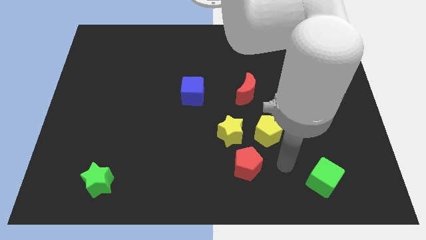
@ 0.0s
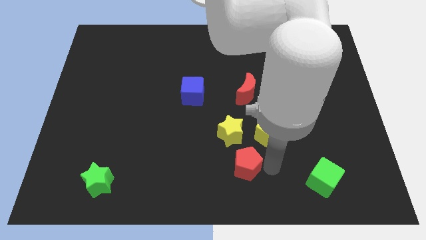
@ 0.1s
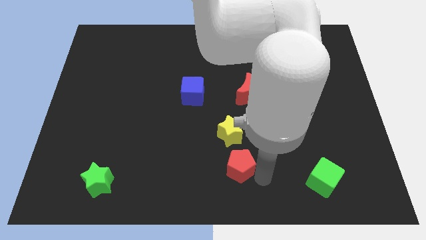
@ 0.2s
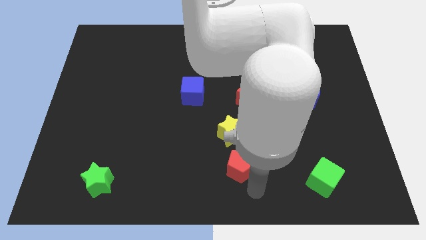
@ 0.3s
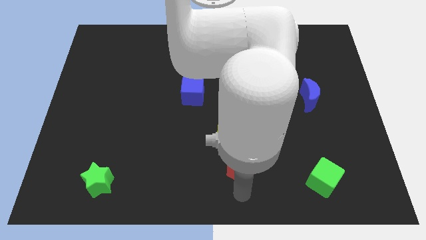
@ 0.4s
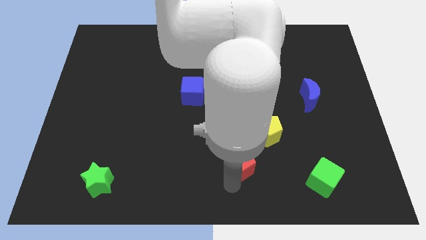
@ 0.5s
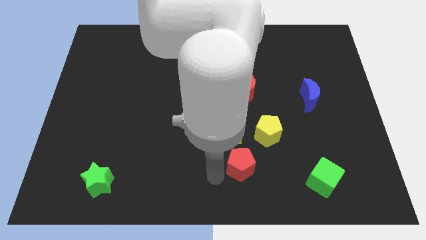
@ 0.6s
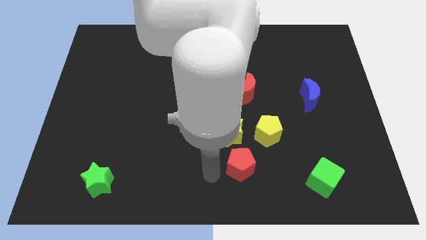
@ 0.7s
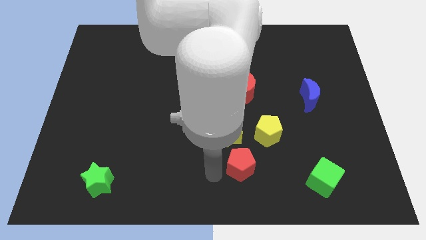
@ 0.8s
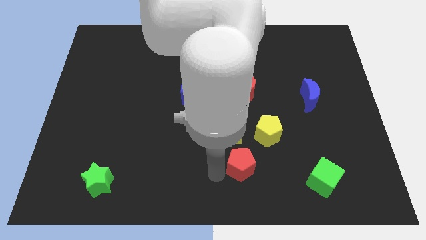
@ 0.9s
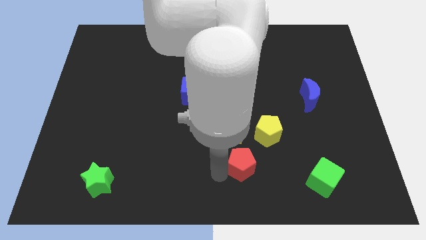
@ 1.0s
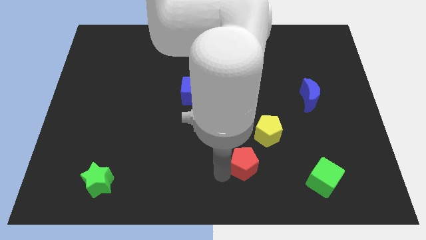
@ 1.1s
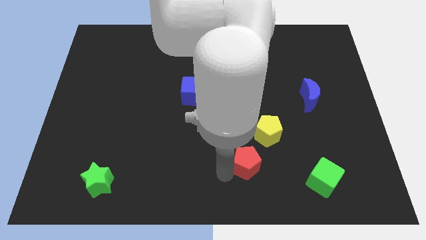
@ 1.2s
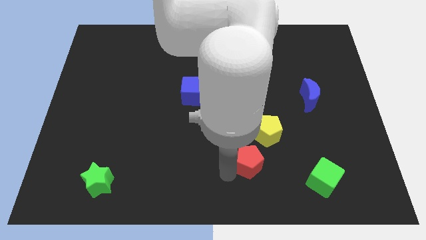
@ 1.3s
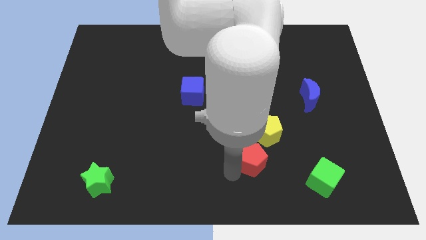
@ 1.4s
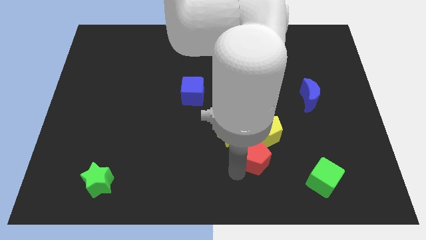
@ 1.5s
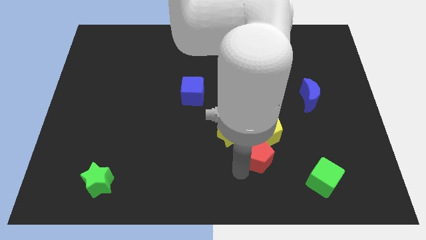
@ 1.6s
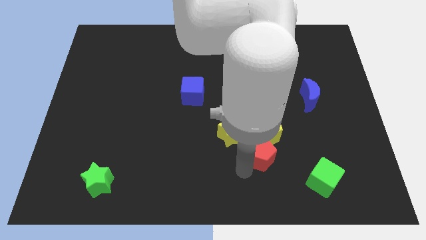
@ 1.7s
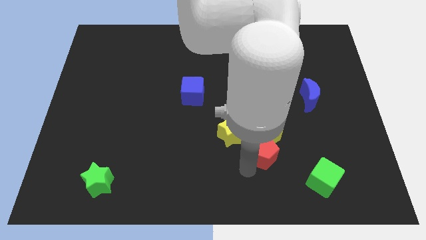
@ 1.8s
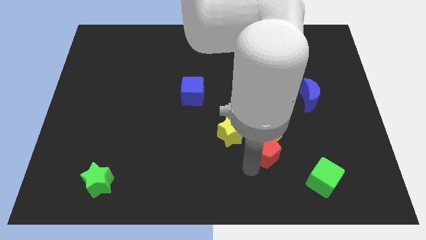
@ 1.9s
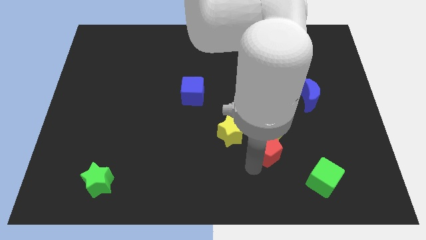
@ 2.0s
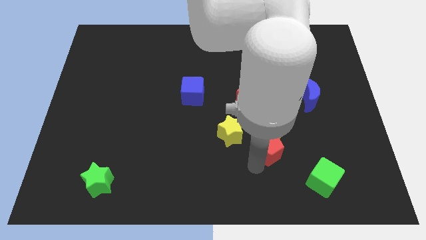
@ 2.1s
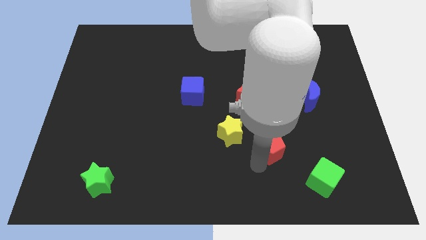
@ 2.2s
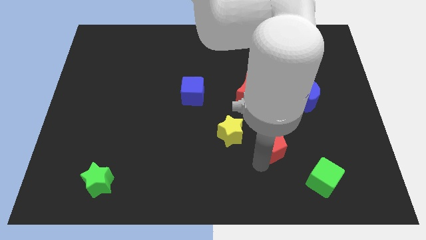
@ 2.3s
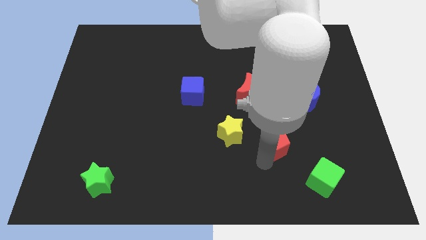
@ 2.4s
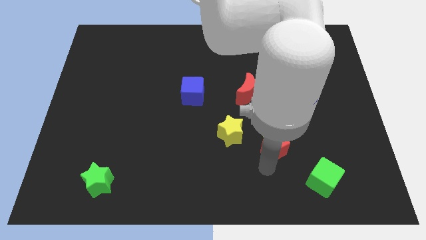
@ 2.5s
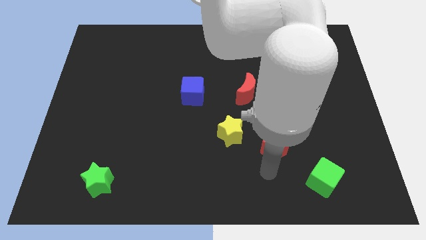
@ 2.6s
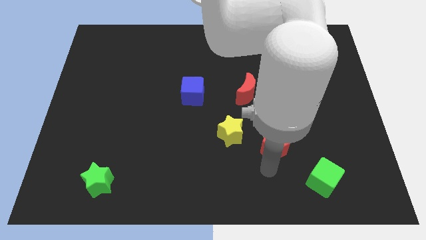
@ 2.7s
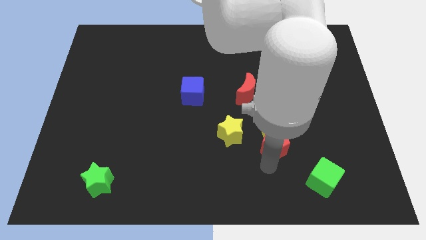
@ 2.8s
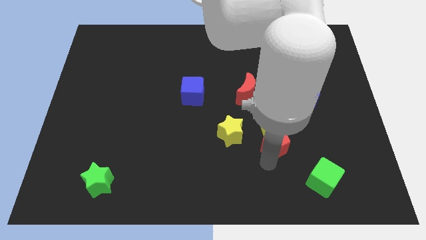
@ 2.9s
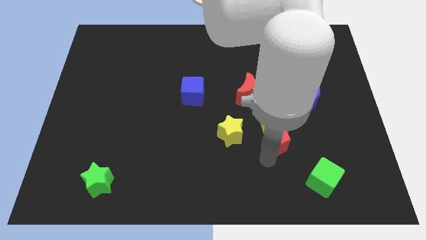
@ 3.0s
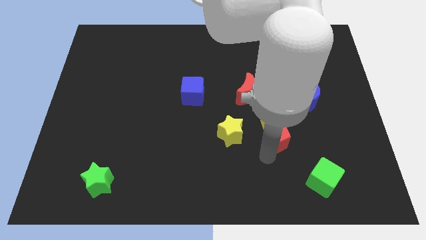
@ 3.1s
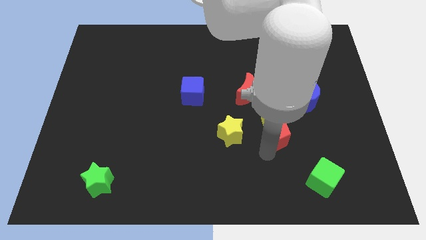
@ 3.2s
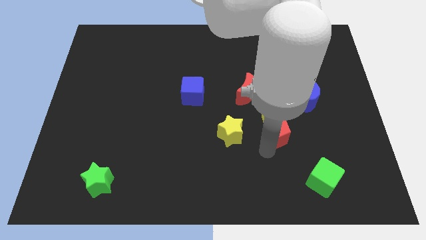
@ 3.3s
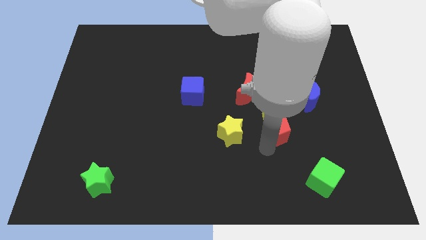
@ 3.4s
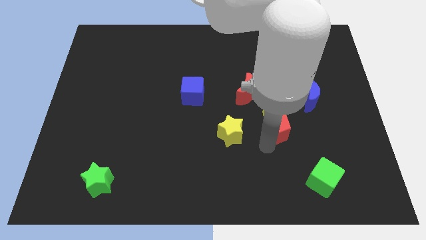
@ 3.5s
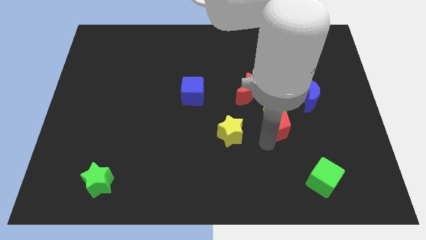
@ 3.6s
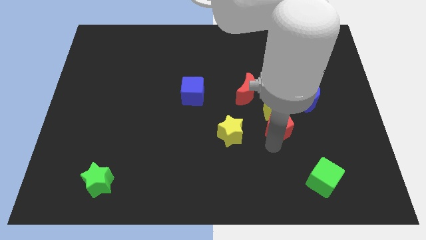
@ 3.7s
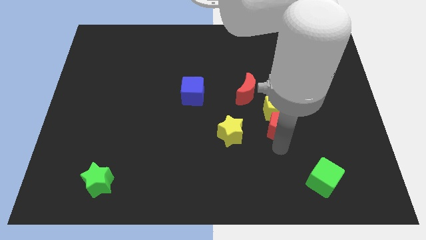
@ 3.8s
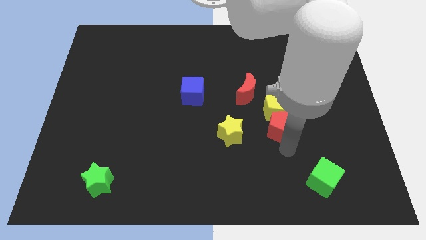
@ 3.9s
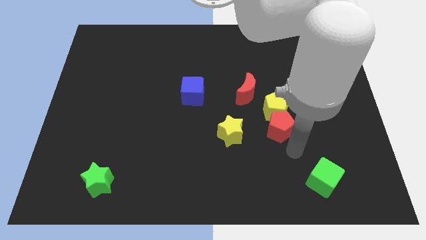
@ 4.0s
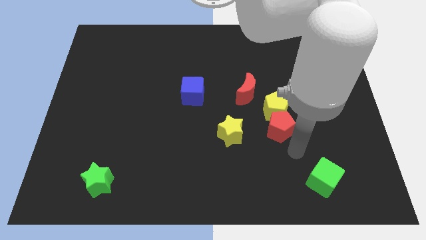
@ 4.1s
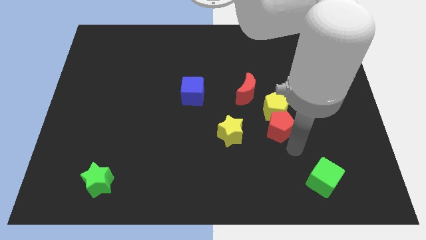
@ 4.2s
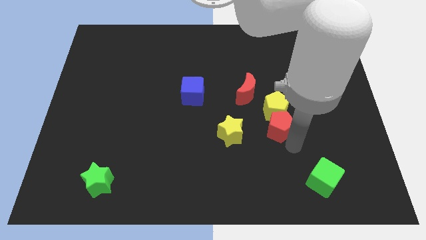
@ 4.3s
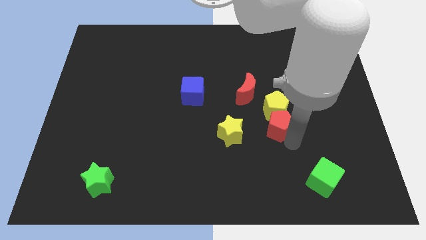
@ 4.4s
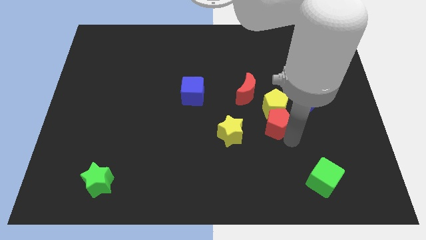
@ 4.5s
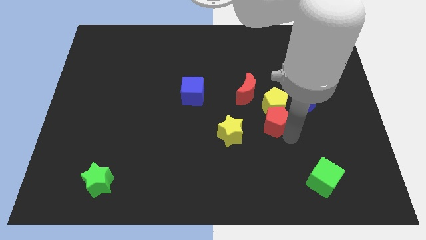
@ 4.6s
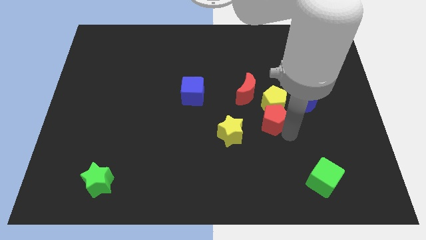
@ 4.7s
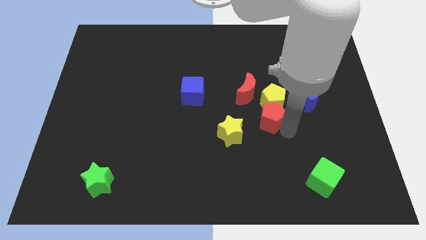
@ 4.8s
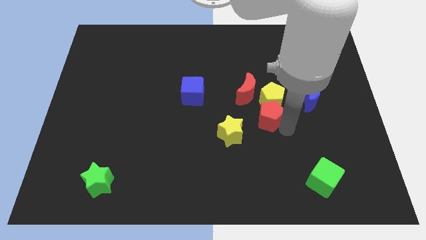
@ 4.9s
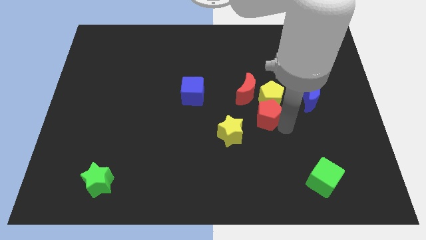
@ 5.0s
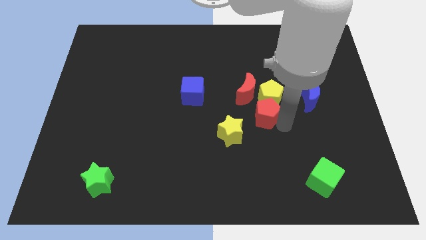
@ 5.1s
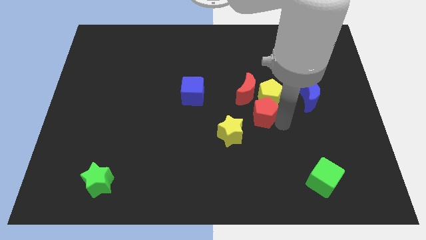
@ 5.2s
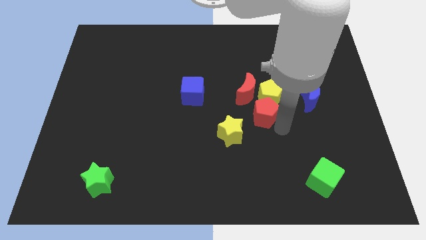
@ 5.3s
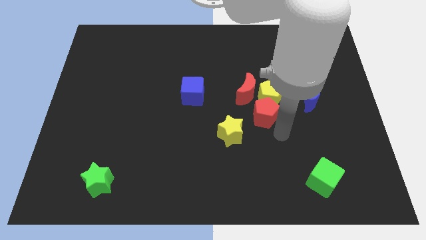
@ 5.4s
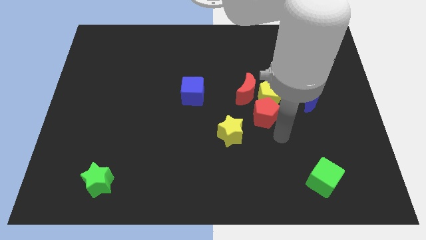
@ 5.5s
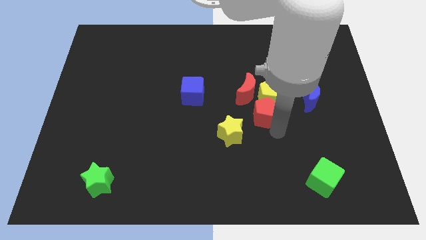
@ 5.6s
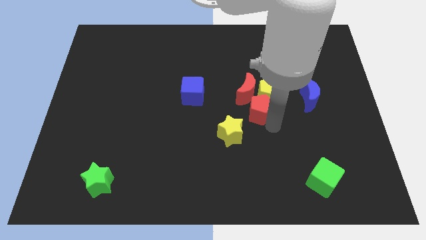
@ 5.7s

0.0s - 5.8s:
move the red pentagon close to the red moon

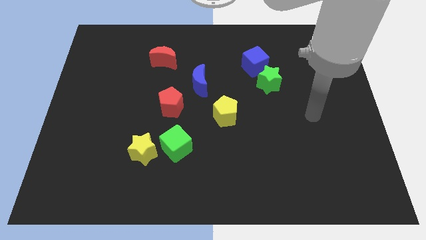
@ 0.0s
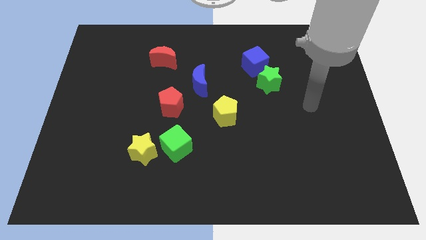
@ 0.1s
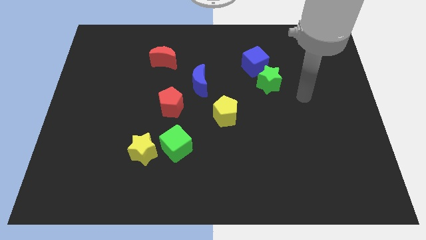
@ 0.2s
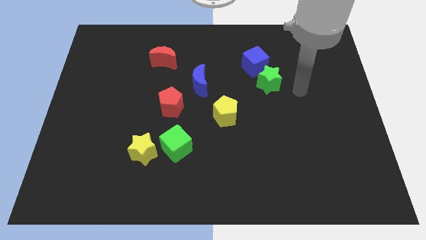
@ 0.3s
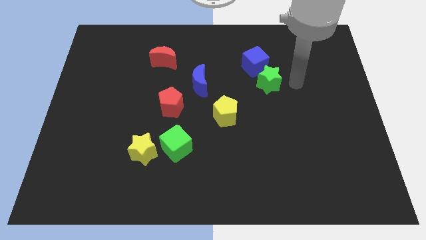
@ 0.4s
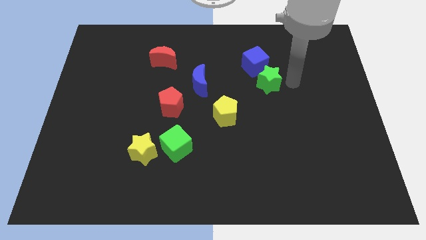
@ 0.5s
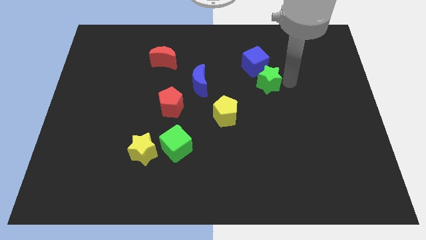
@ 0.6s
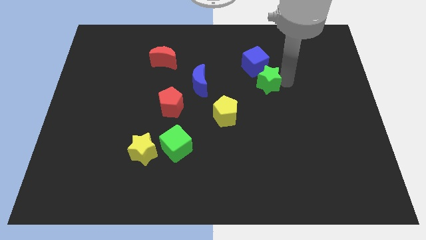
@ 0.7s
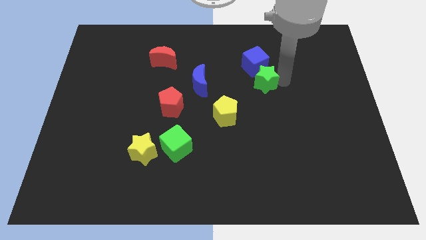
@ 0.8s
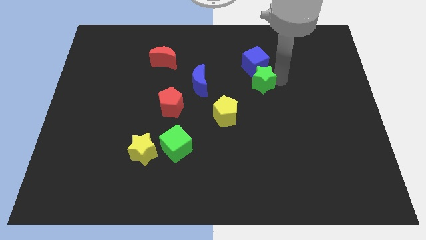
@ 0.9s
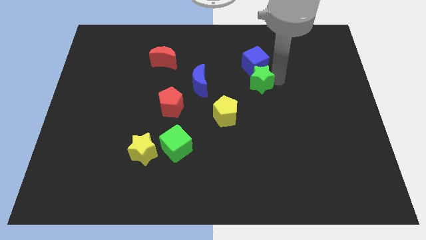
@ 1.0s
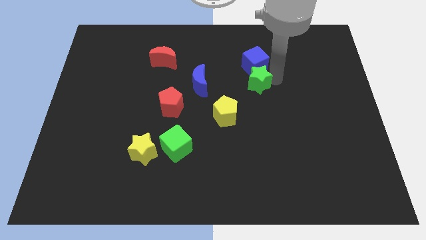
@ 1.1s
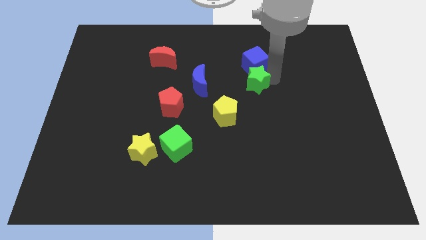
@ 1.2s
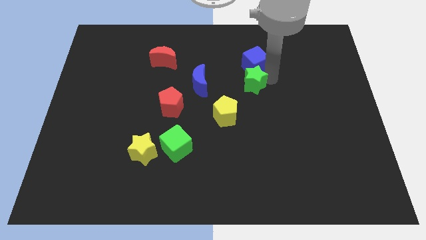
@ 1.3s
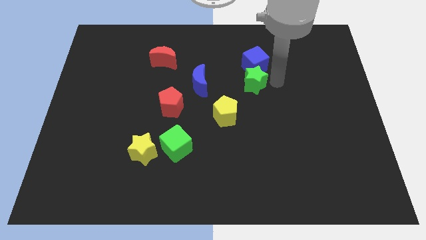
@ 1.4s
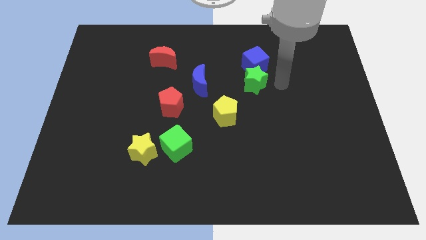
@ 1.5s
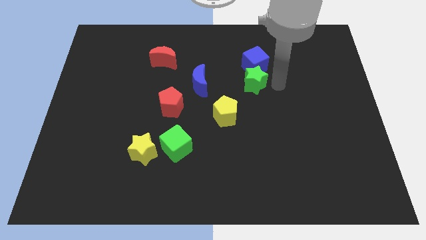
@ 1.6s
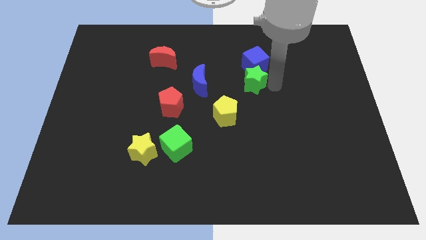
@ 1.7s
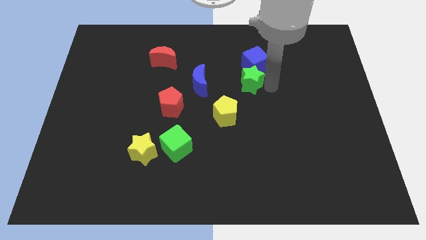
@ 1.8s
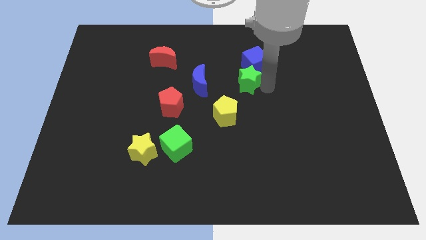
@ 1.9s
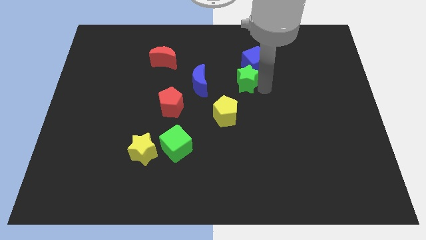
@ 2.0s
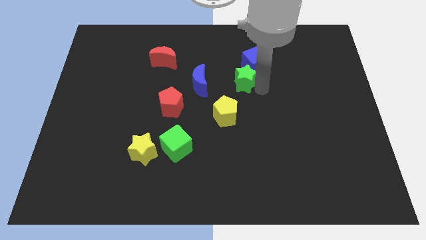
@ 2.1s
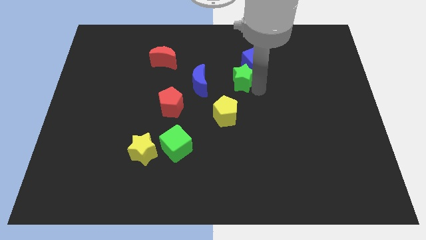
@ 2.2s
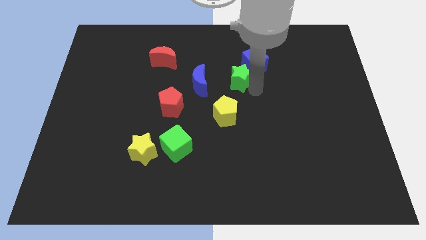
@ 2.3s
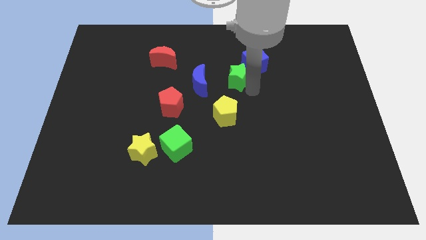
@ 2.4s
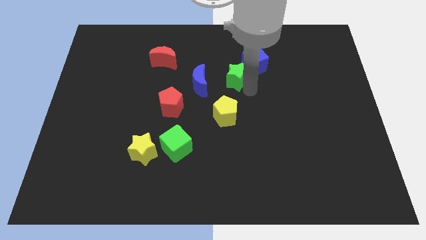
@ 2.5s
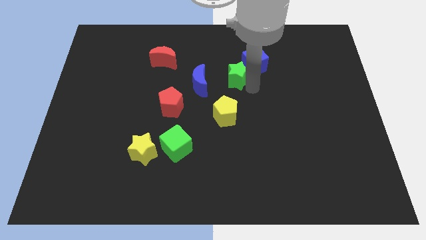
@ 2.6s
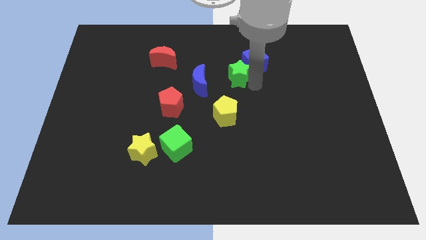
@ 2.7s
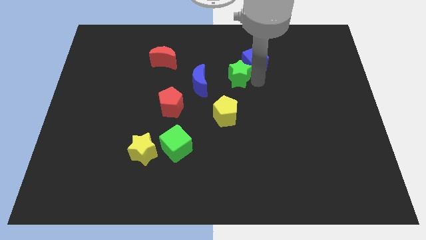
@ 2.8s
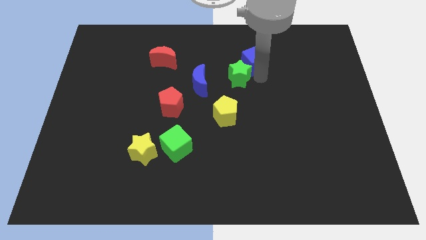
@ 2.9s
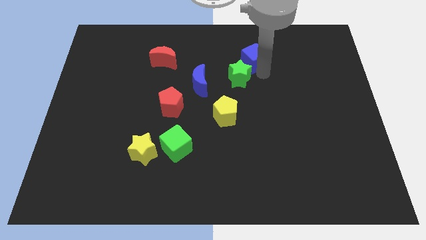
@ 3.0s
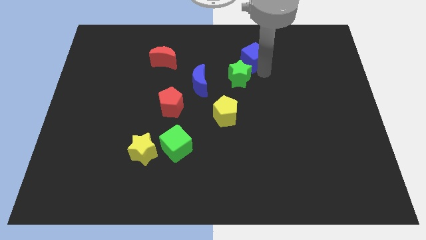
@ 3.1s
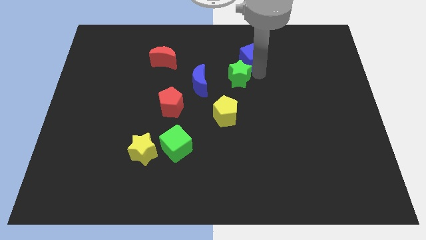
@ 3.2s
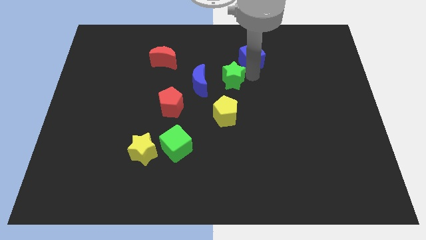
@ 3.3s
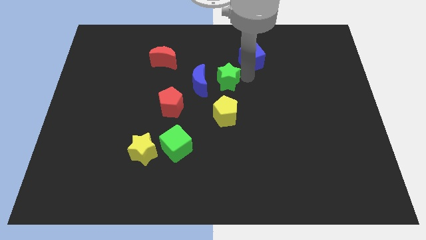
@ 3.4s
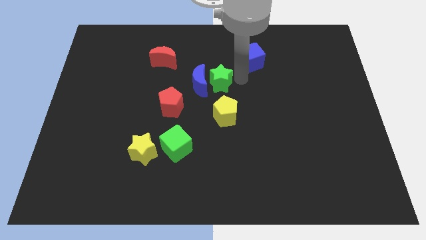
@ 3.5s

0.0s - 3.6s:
put the green star next to the blue moon
